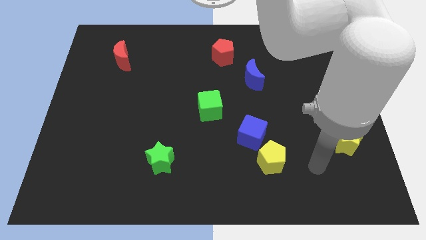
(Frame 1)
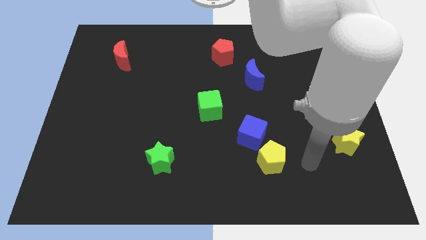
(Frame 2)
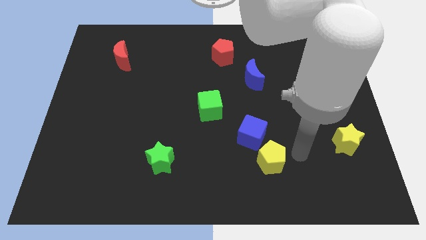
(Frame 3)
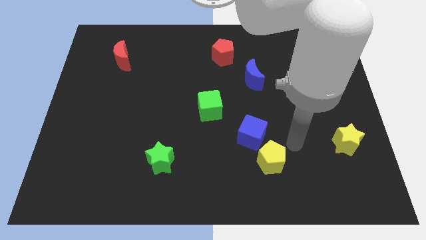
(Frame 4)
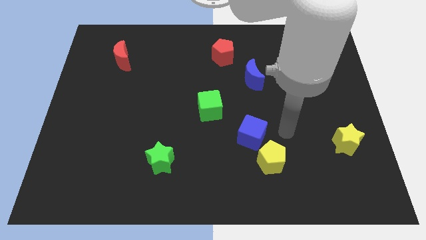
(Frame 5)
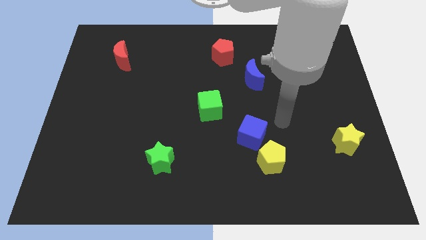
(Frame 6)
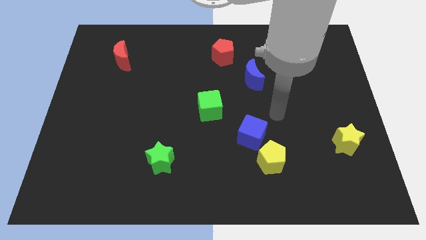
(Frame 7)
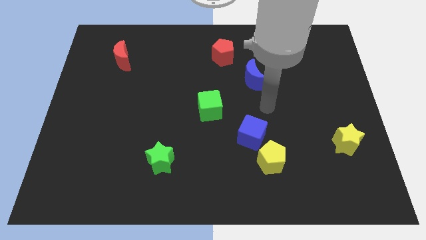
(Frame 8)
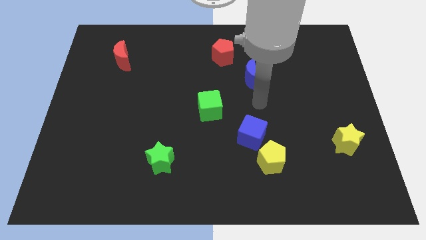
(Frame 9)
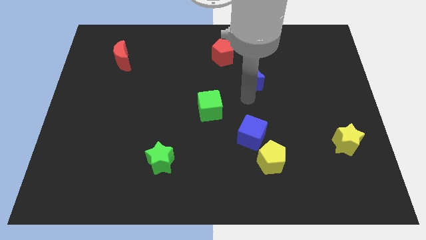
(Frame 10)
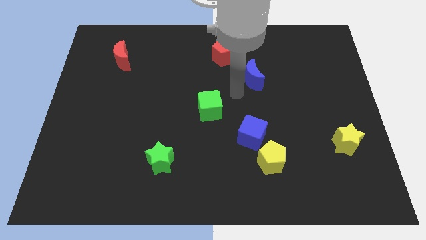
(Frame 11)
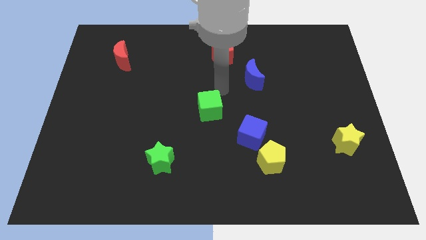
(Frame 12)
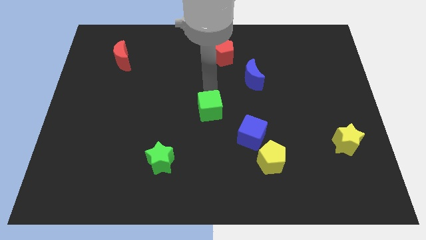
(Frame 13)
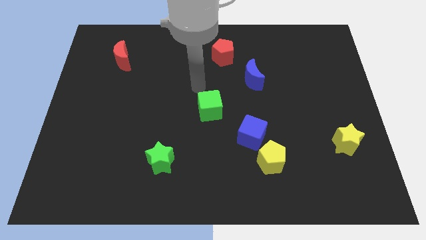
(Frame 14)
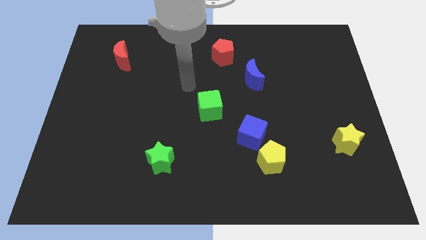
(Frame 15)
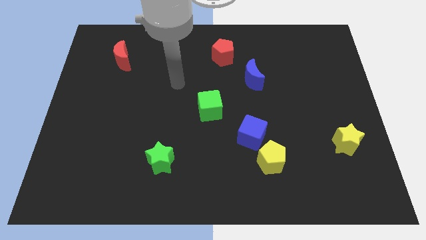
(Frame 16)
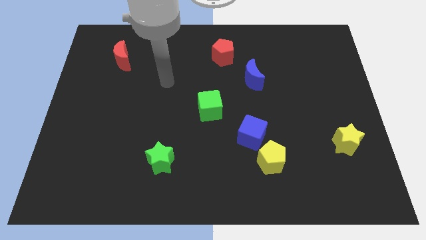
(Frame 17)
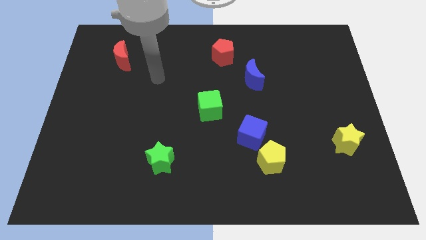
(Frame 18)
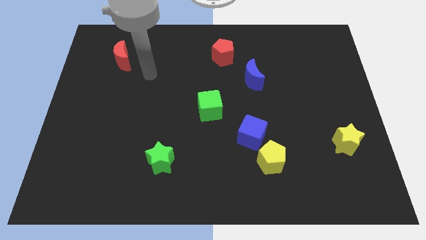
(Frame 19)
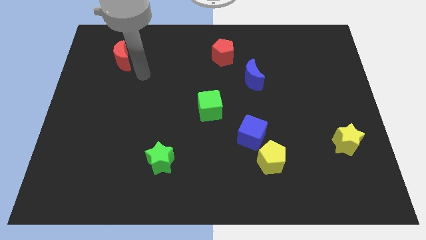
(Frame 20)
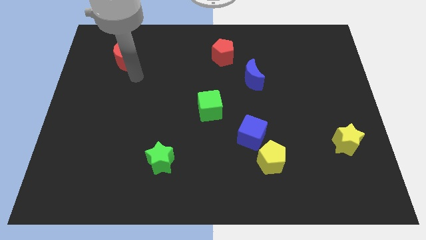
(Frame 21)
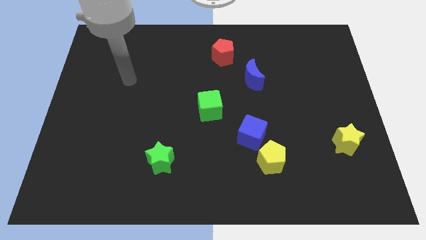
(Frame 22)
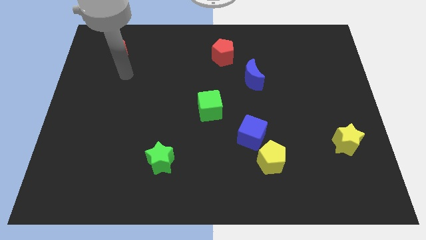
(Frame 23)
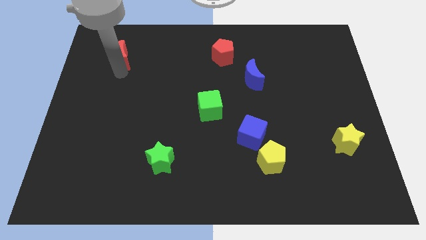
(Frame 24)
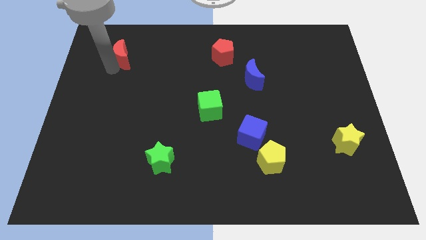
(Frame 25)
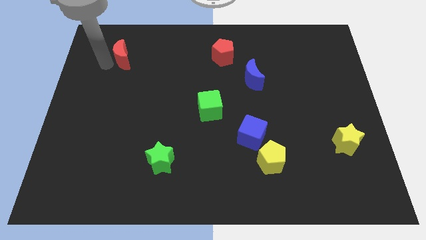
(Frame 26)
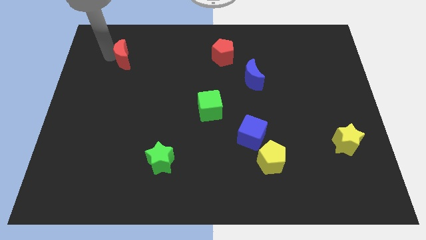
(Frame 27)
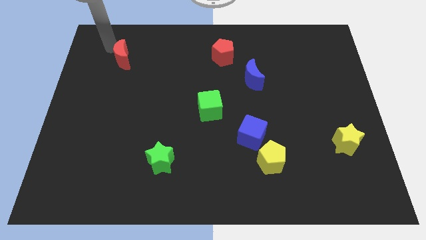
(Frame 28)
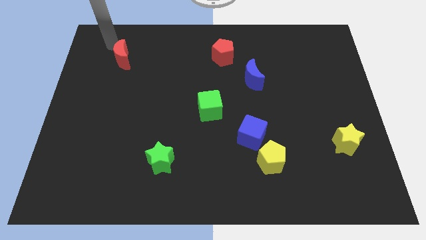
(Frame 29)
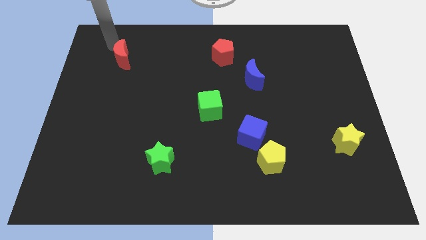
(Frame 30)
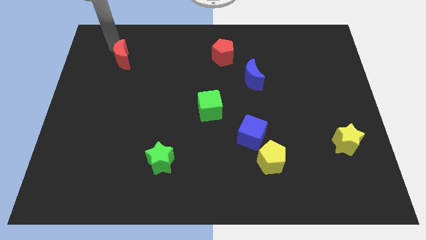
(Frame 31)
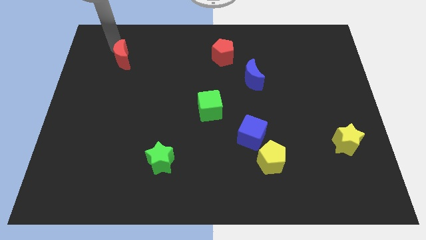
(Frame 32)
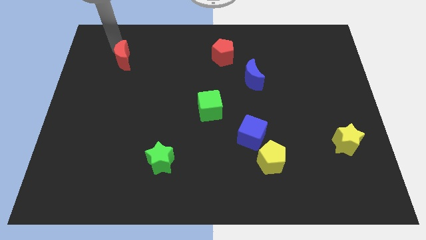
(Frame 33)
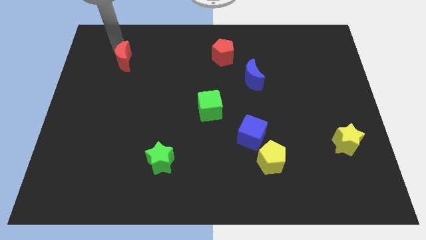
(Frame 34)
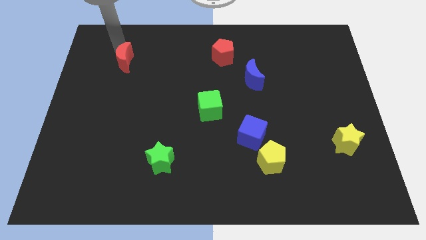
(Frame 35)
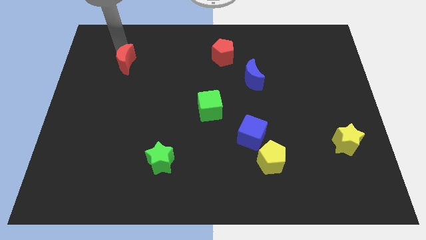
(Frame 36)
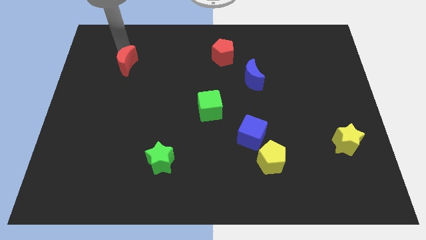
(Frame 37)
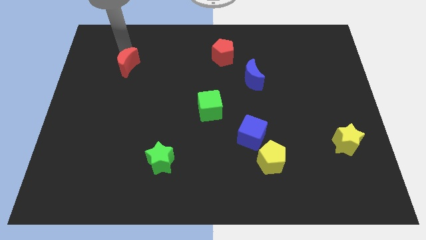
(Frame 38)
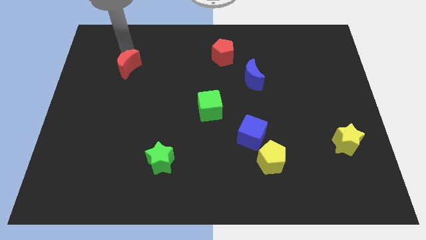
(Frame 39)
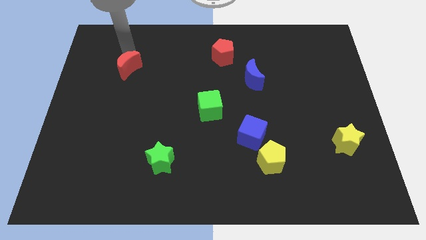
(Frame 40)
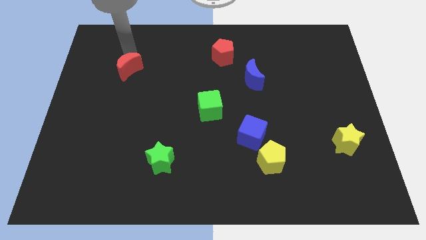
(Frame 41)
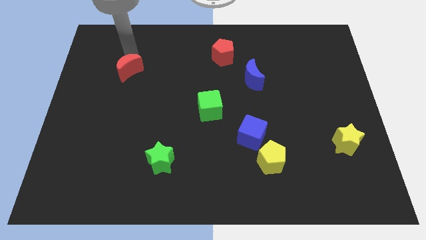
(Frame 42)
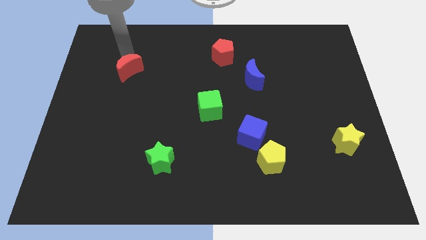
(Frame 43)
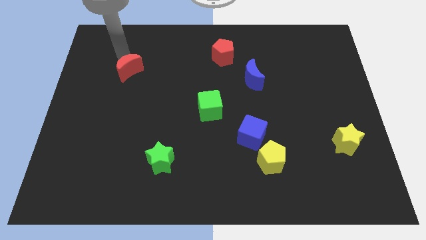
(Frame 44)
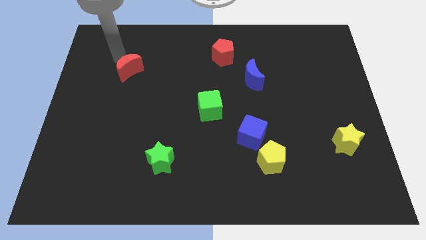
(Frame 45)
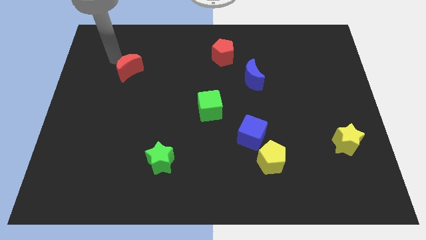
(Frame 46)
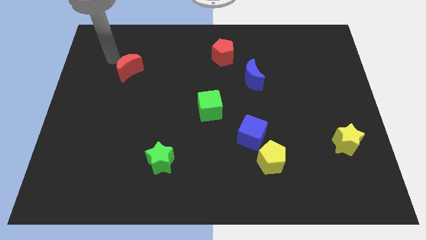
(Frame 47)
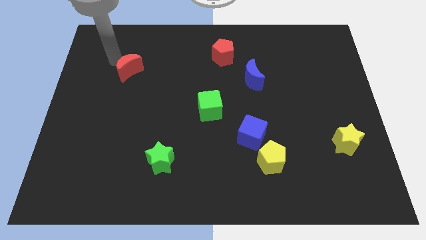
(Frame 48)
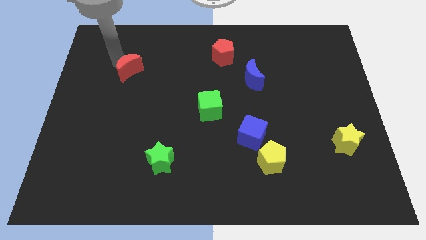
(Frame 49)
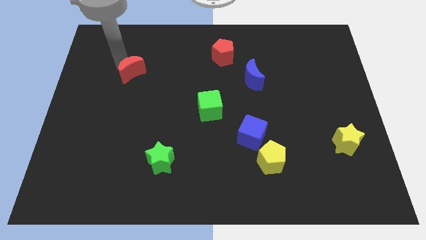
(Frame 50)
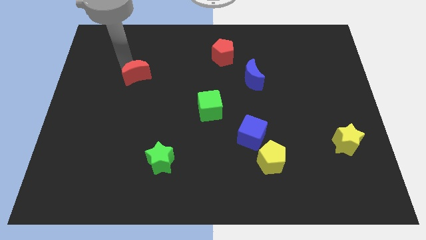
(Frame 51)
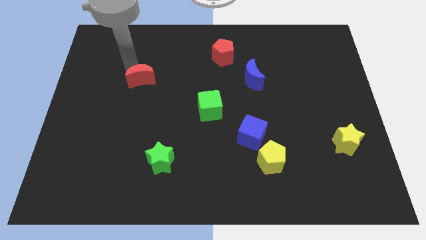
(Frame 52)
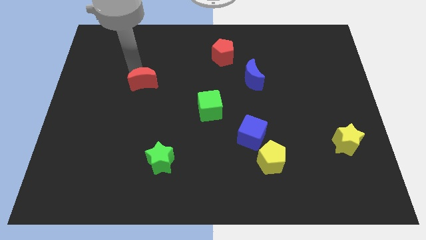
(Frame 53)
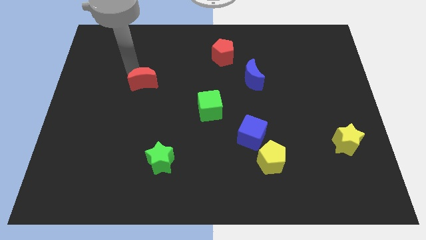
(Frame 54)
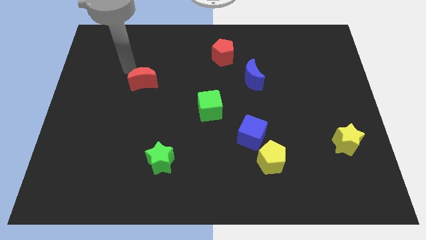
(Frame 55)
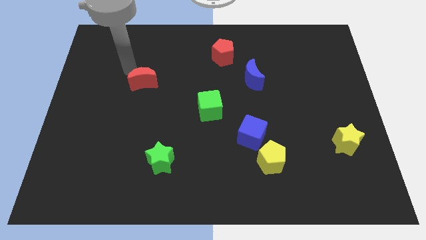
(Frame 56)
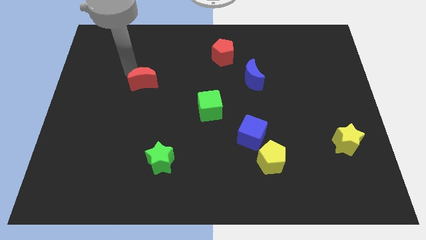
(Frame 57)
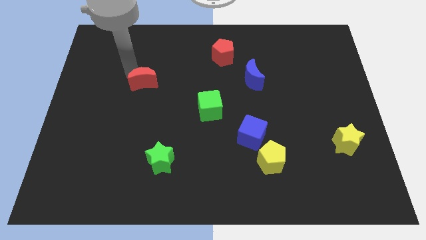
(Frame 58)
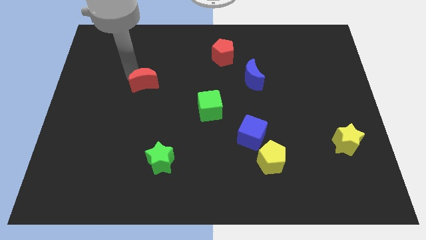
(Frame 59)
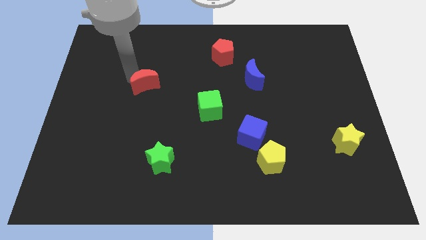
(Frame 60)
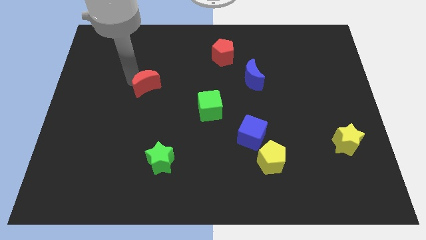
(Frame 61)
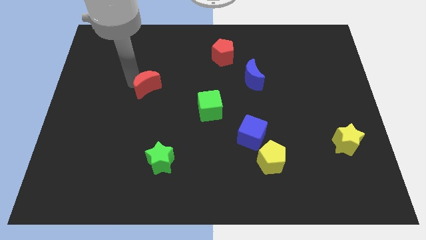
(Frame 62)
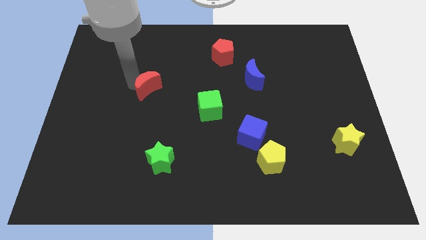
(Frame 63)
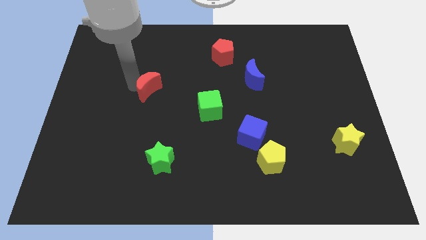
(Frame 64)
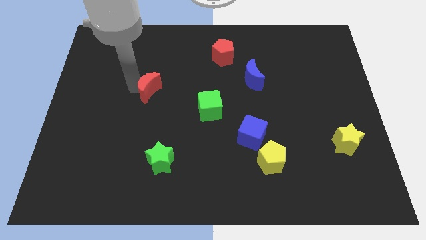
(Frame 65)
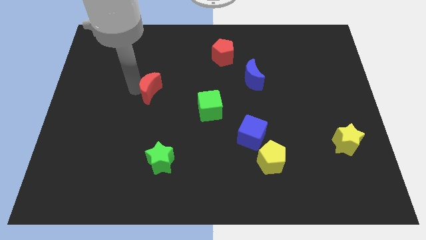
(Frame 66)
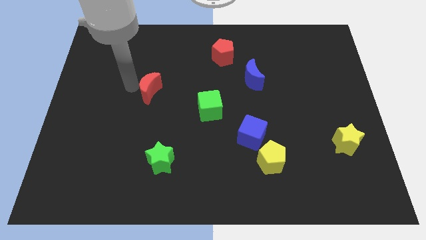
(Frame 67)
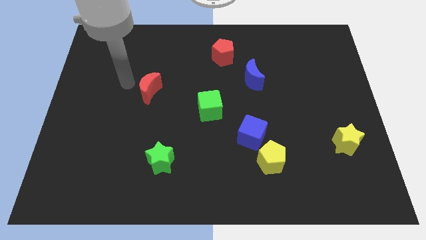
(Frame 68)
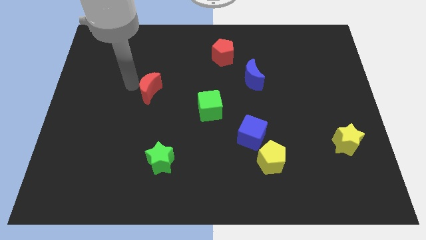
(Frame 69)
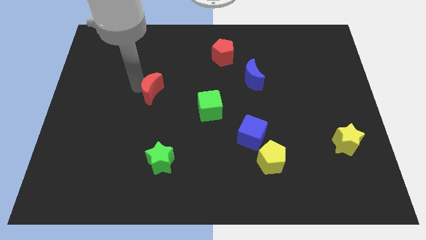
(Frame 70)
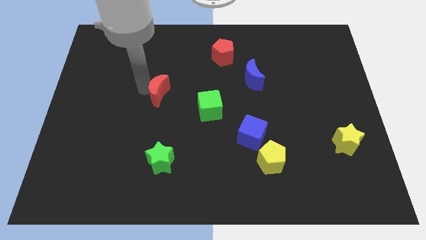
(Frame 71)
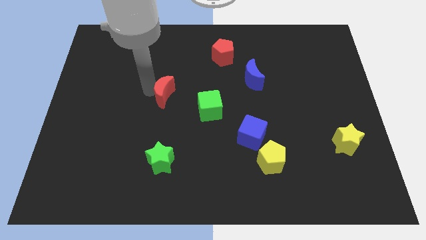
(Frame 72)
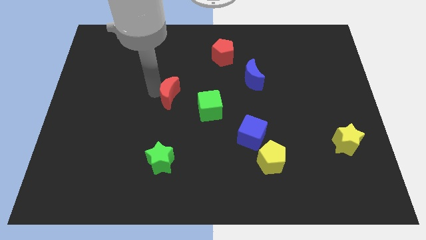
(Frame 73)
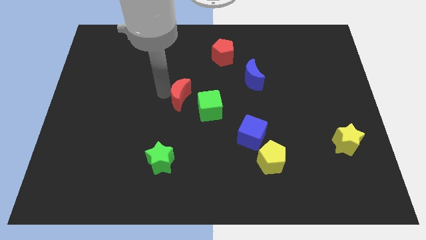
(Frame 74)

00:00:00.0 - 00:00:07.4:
slide the red moon downwards and then to the right

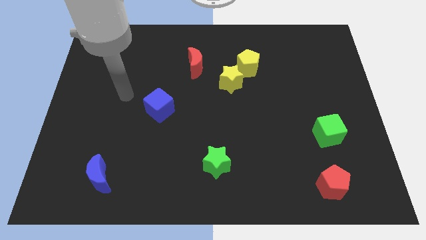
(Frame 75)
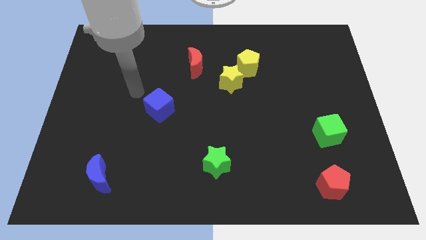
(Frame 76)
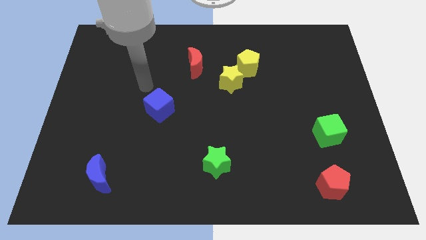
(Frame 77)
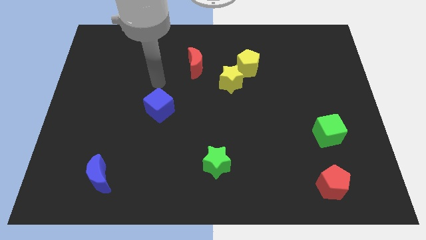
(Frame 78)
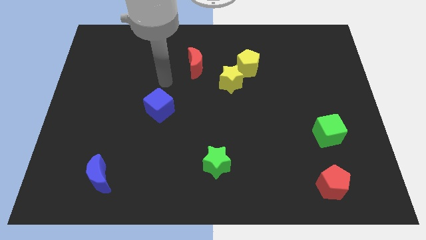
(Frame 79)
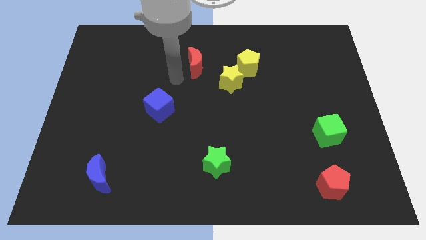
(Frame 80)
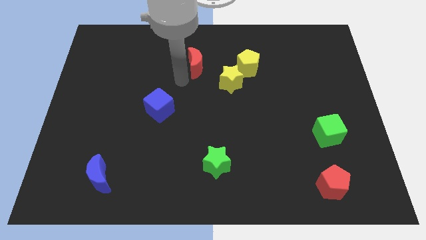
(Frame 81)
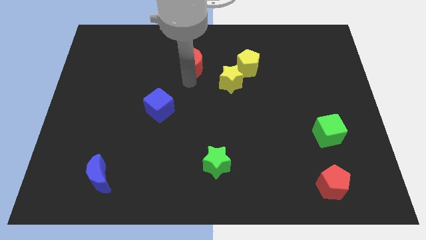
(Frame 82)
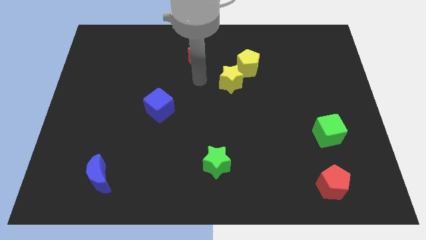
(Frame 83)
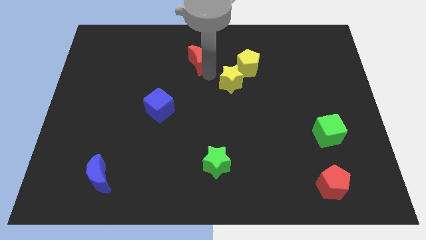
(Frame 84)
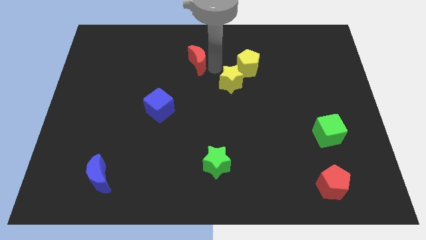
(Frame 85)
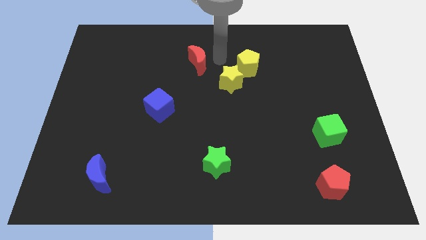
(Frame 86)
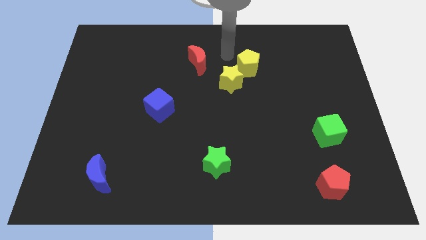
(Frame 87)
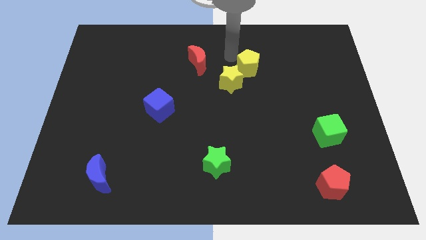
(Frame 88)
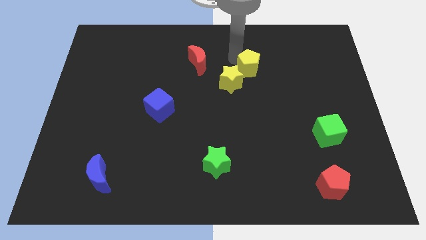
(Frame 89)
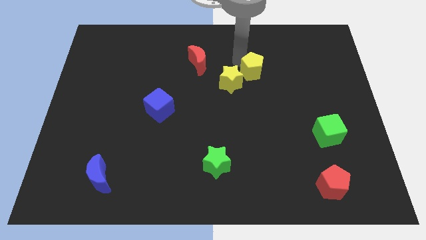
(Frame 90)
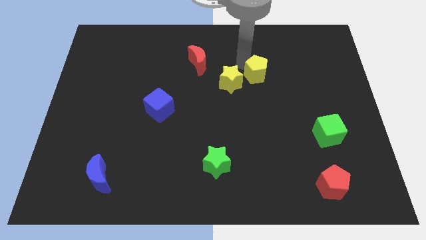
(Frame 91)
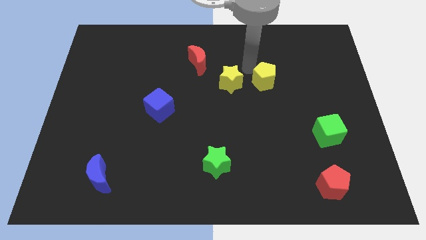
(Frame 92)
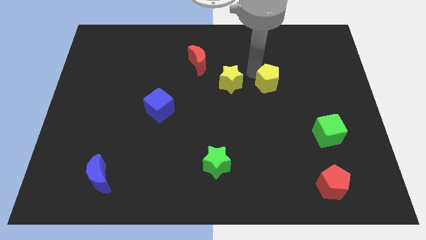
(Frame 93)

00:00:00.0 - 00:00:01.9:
push the yellow pentagon down and right diagonally somewhat
